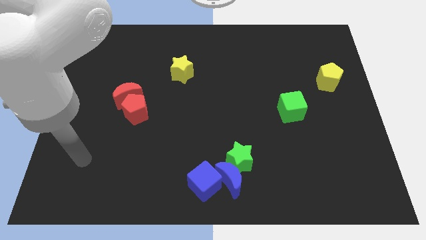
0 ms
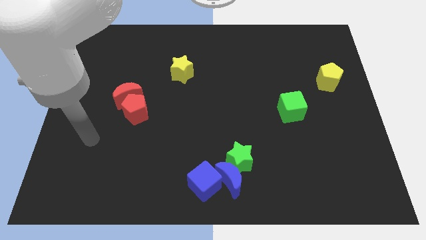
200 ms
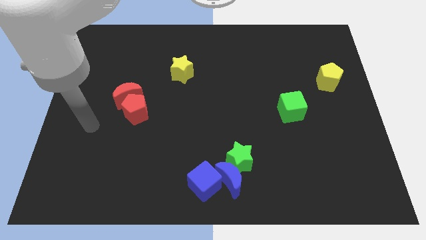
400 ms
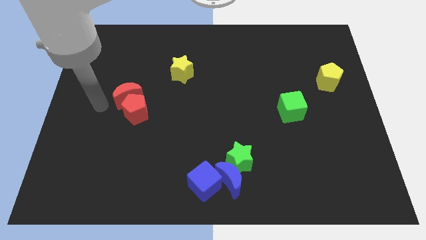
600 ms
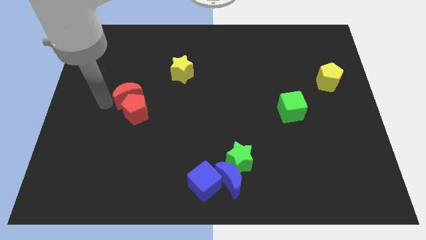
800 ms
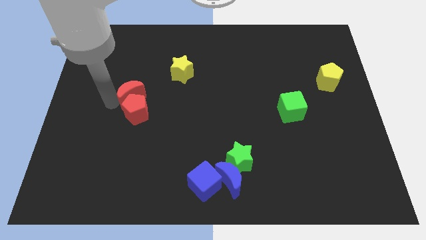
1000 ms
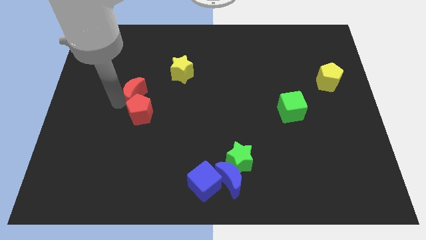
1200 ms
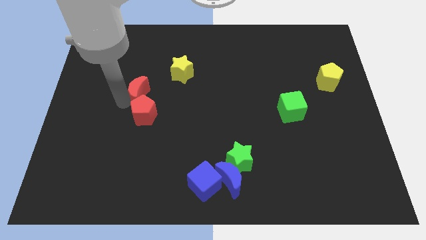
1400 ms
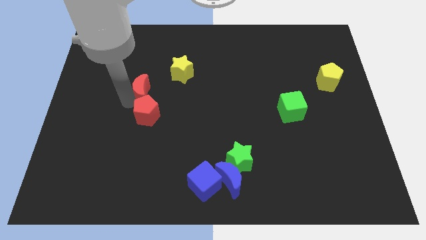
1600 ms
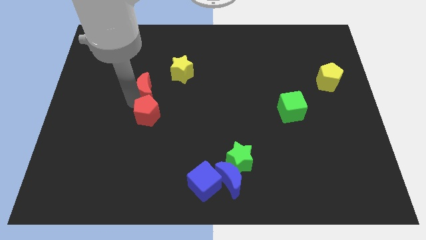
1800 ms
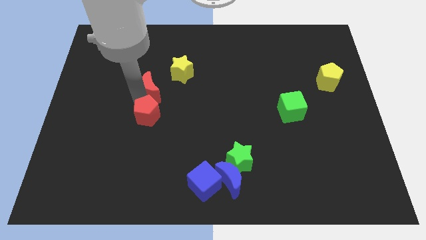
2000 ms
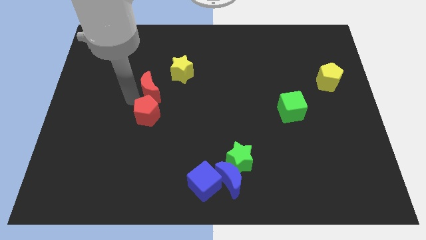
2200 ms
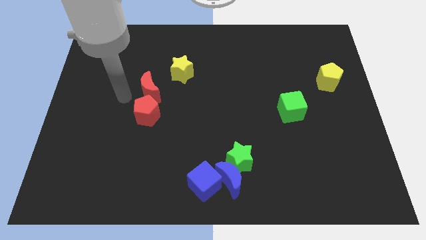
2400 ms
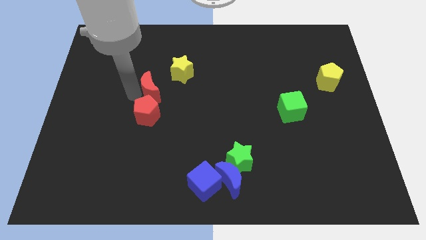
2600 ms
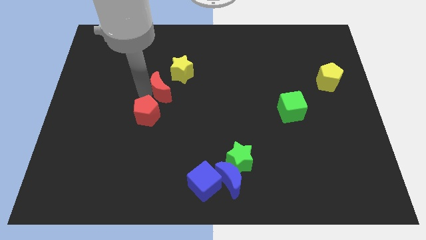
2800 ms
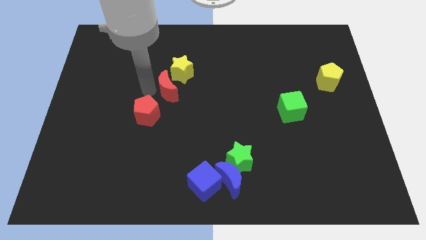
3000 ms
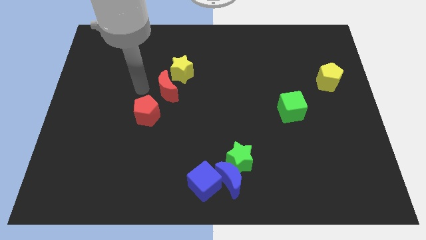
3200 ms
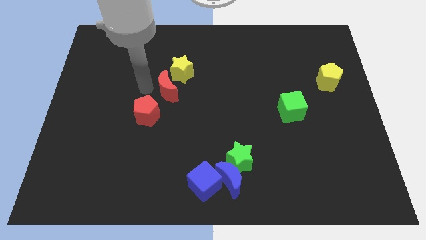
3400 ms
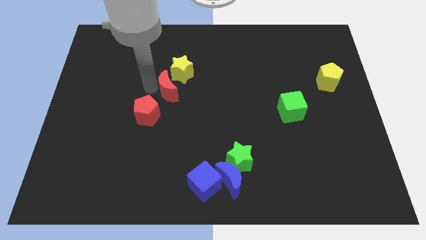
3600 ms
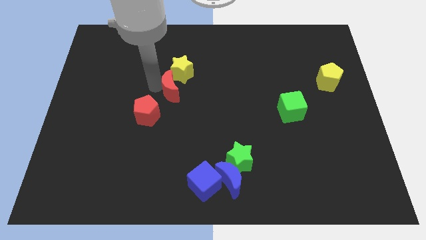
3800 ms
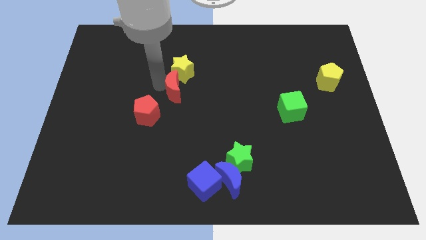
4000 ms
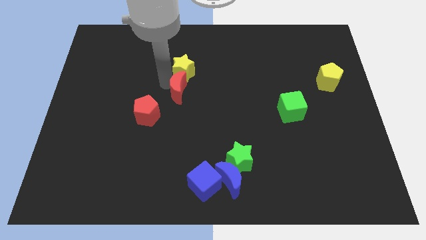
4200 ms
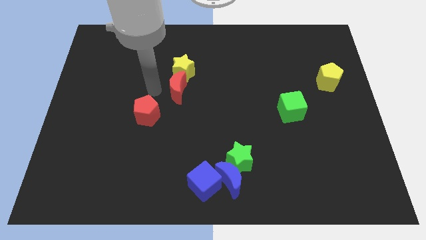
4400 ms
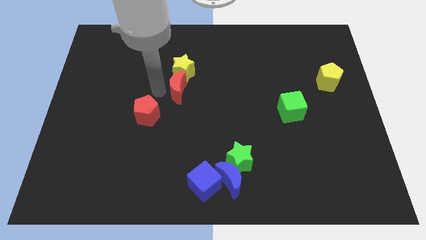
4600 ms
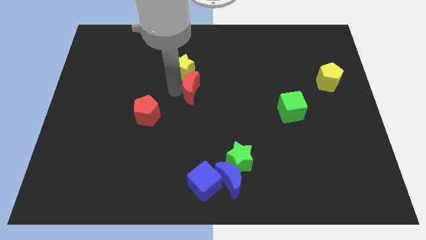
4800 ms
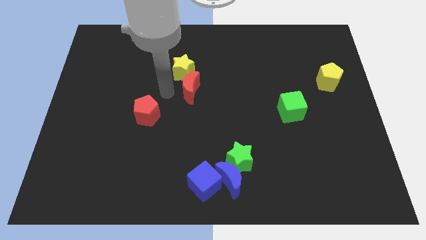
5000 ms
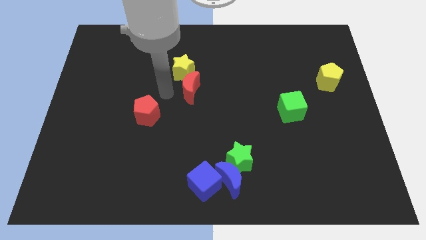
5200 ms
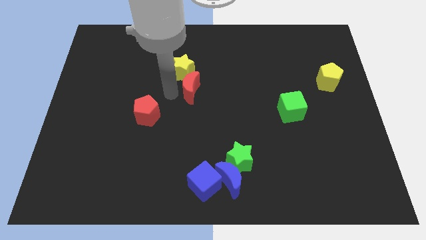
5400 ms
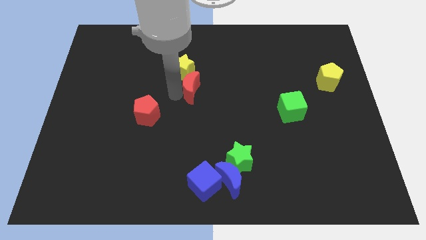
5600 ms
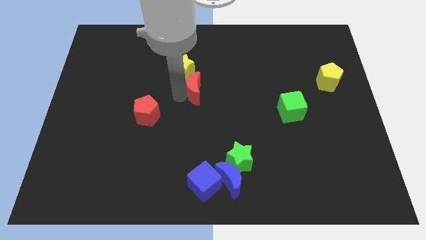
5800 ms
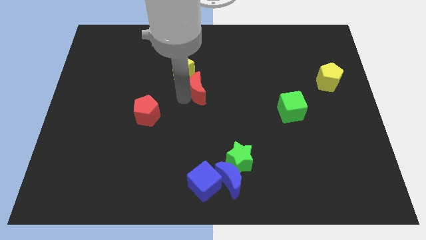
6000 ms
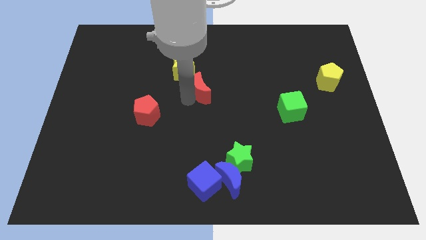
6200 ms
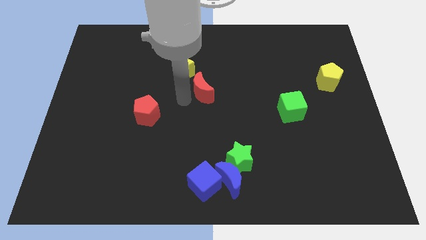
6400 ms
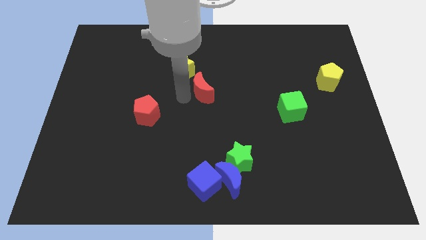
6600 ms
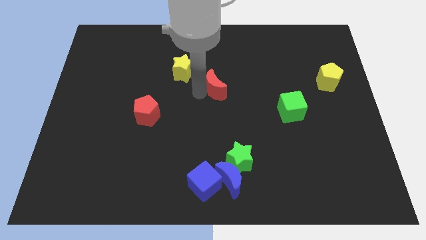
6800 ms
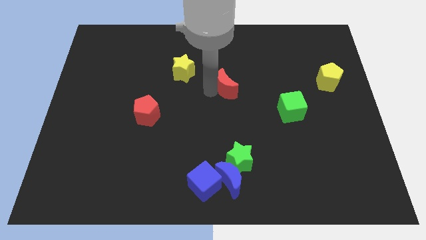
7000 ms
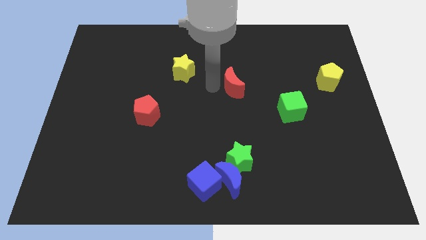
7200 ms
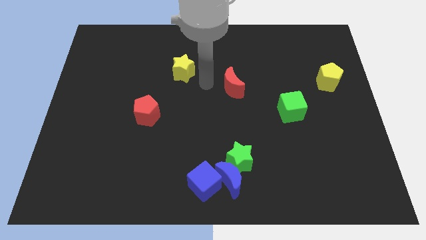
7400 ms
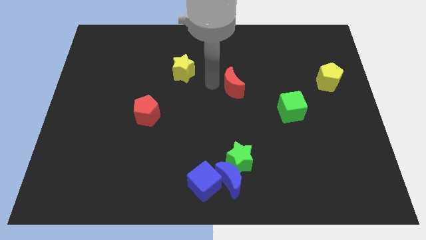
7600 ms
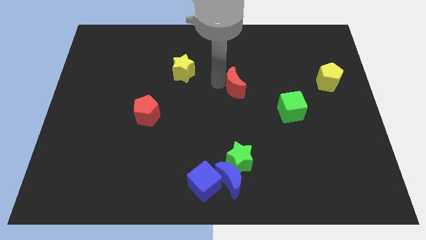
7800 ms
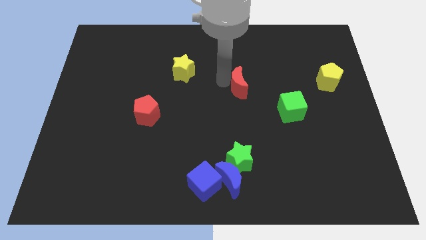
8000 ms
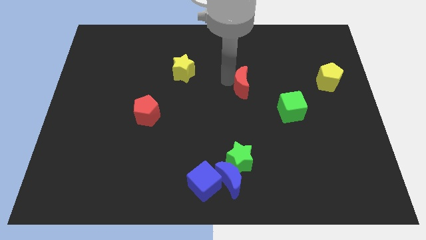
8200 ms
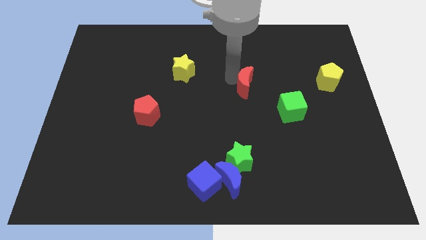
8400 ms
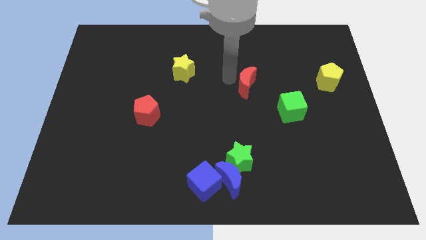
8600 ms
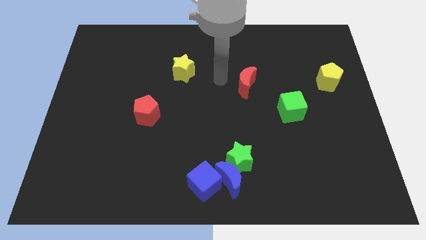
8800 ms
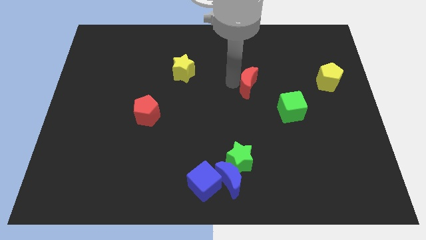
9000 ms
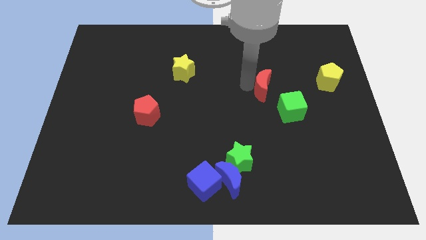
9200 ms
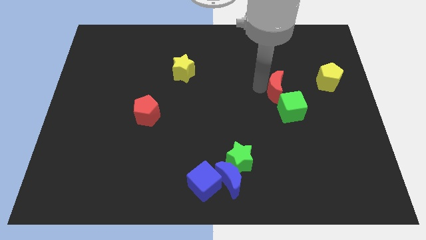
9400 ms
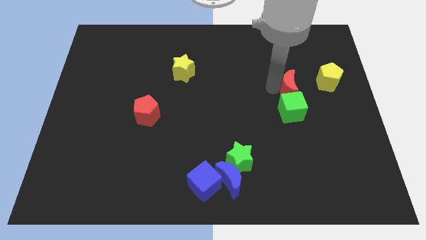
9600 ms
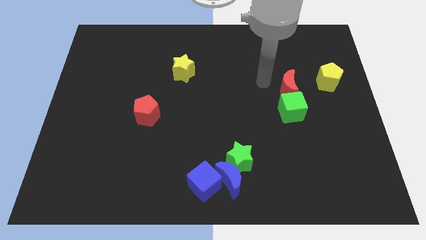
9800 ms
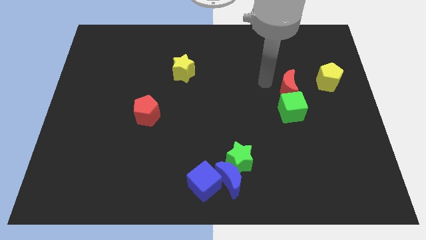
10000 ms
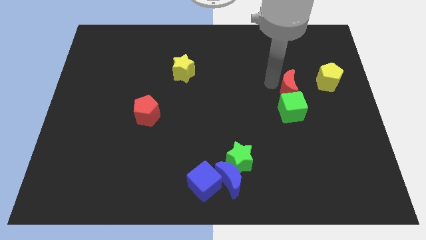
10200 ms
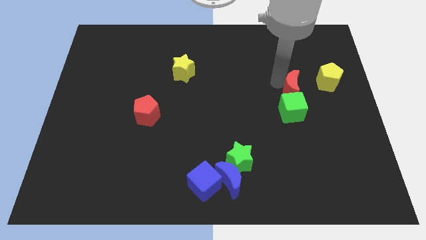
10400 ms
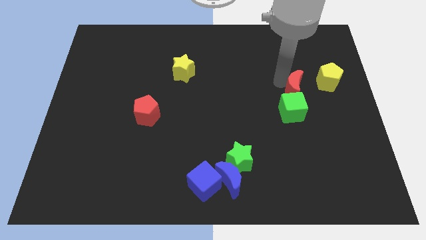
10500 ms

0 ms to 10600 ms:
push the red moon to the bottom left of the yellow pentagon

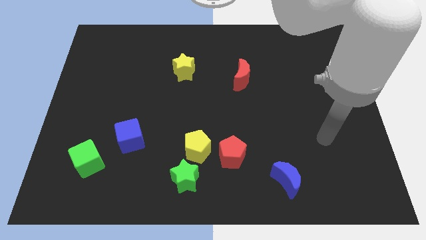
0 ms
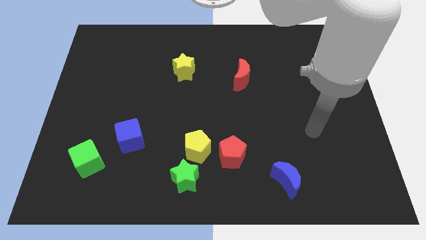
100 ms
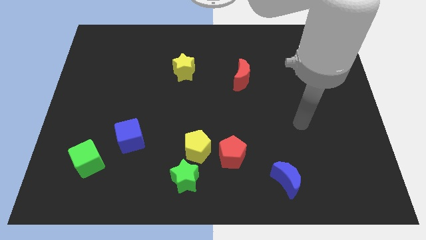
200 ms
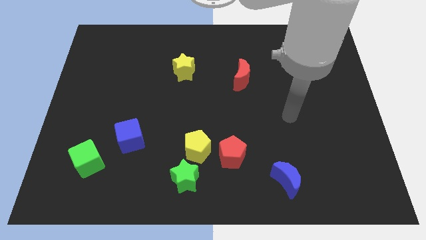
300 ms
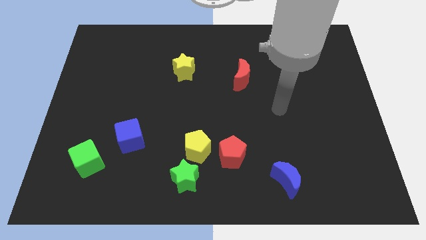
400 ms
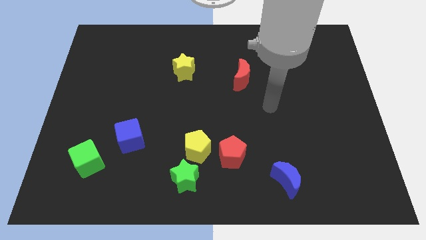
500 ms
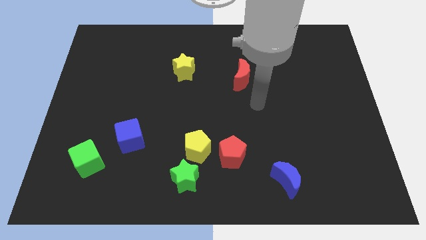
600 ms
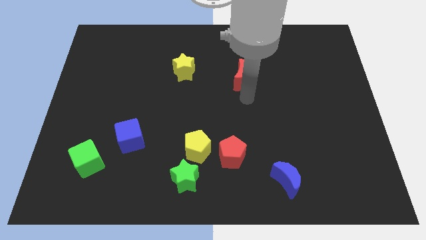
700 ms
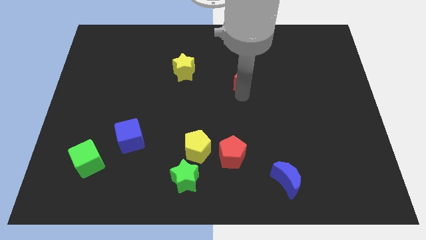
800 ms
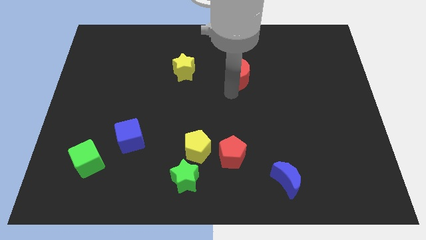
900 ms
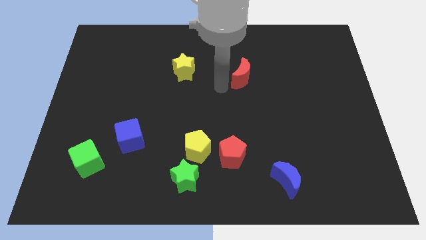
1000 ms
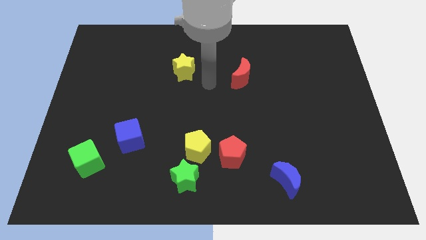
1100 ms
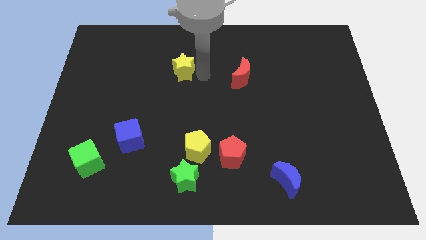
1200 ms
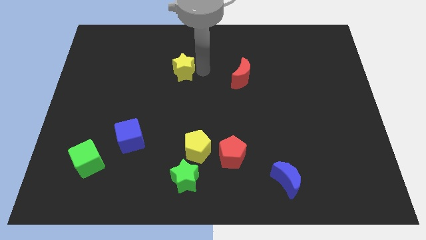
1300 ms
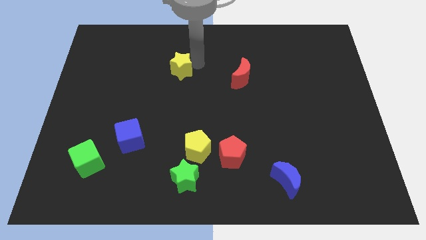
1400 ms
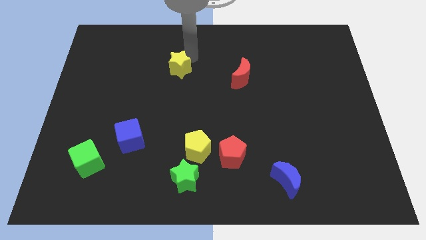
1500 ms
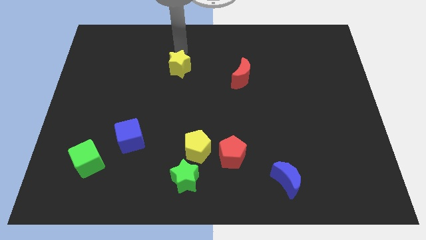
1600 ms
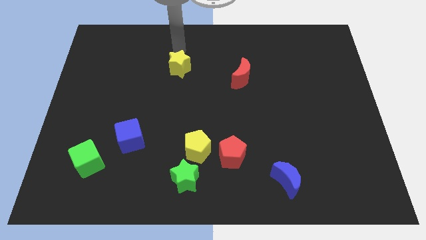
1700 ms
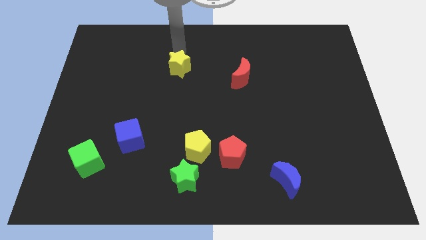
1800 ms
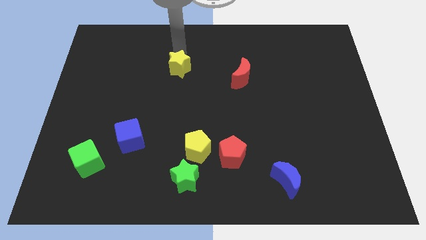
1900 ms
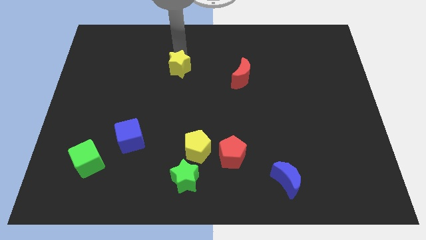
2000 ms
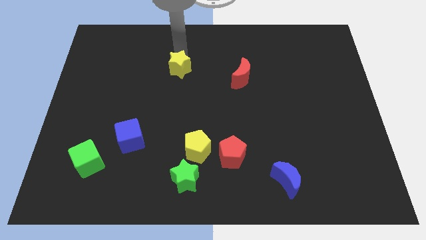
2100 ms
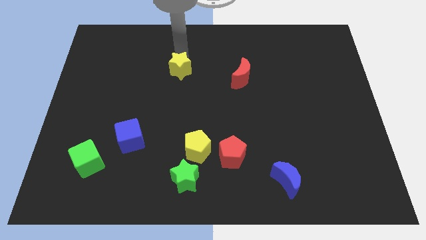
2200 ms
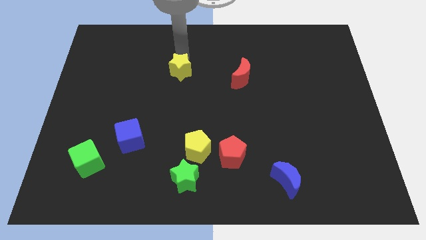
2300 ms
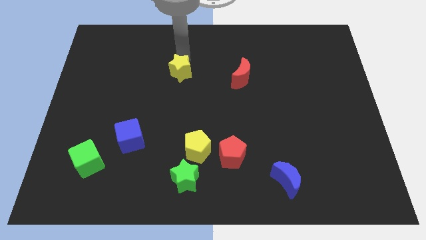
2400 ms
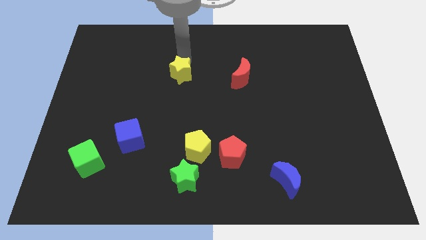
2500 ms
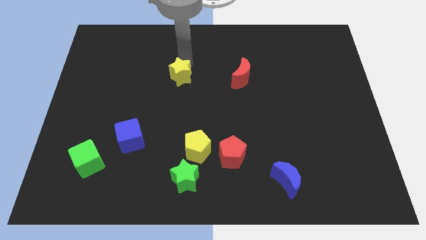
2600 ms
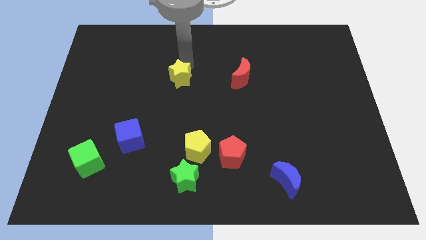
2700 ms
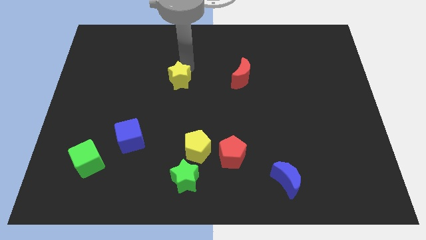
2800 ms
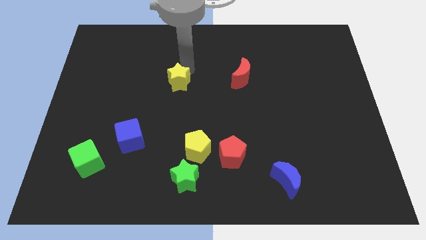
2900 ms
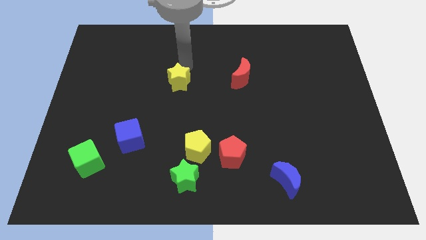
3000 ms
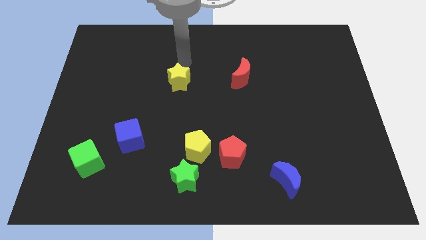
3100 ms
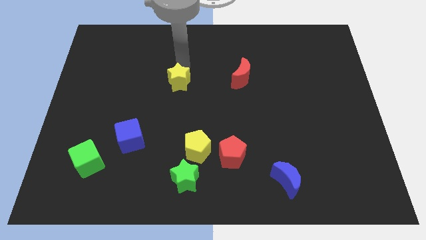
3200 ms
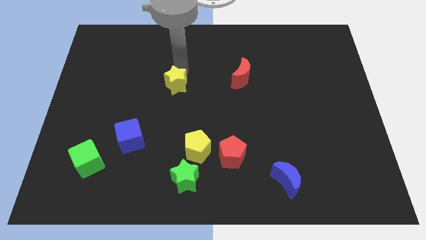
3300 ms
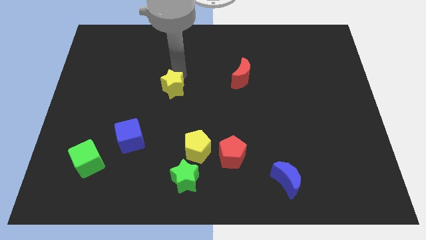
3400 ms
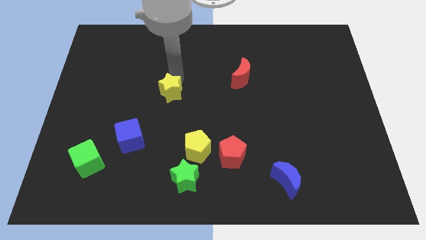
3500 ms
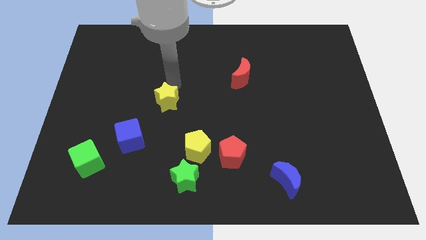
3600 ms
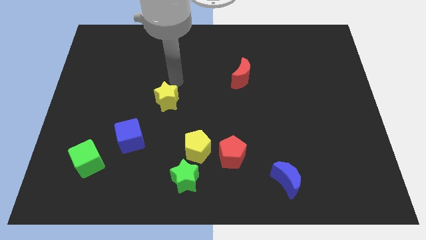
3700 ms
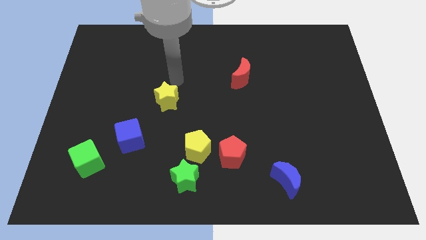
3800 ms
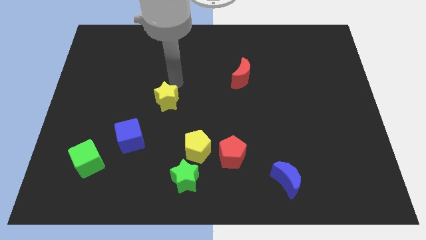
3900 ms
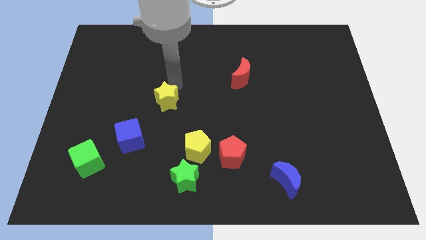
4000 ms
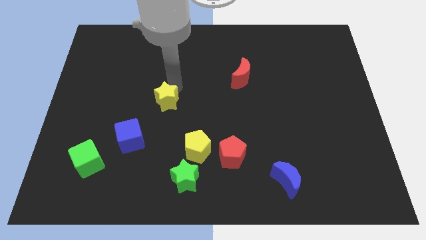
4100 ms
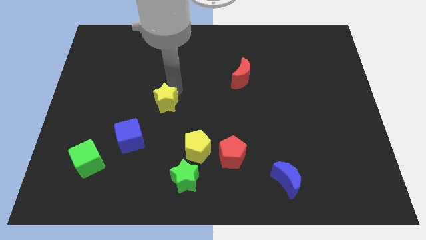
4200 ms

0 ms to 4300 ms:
move the yellow star to the top right of the blue cube
